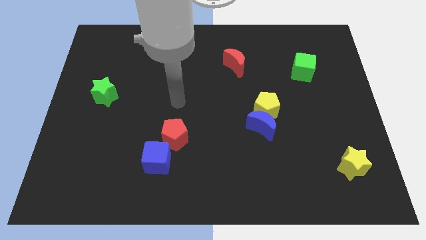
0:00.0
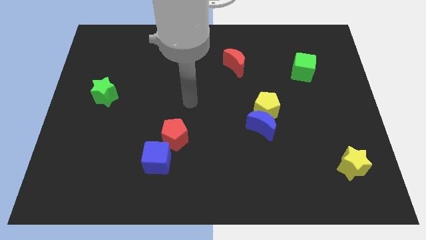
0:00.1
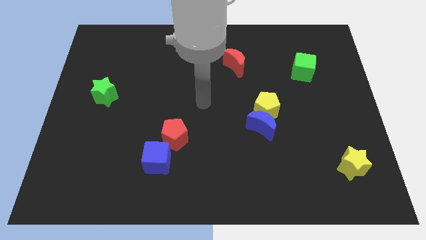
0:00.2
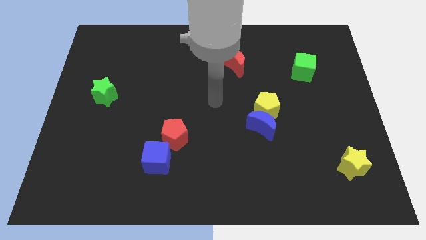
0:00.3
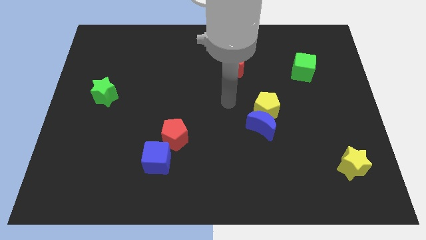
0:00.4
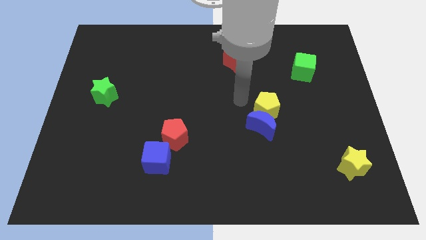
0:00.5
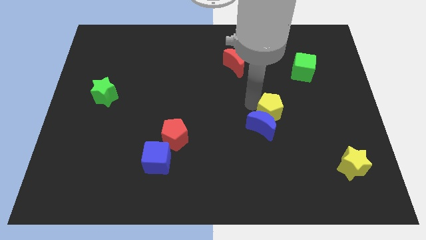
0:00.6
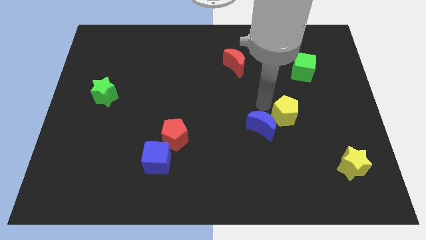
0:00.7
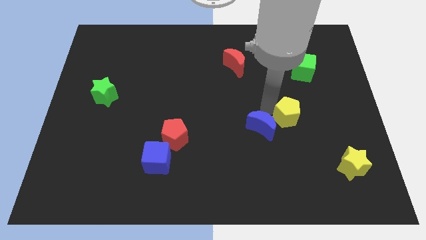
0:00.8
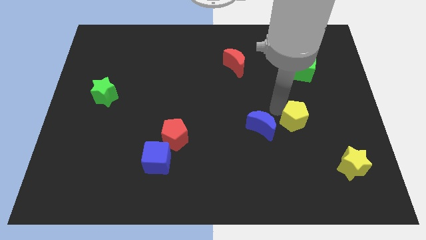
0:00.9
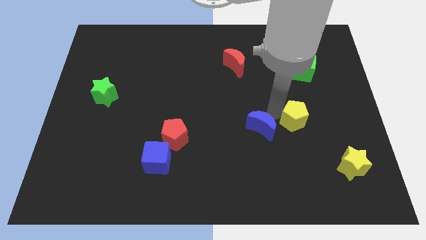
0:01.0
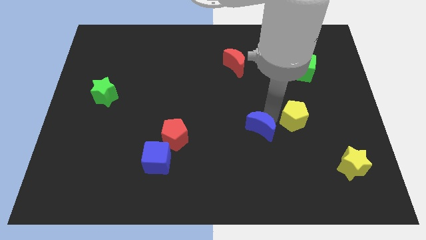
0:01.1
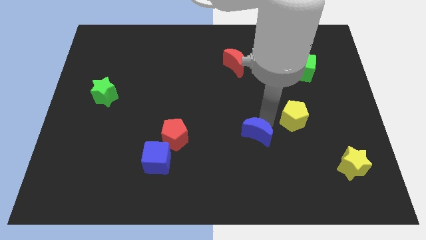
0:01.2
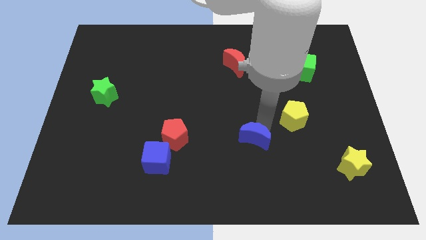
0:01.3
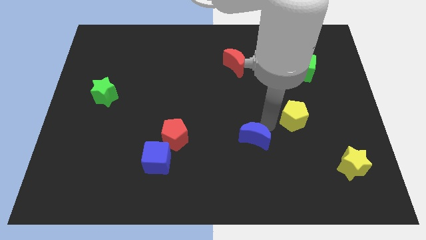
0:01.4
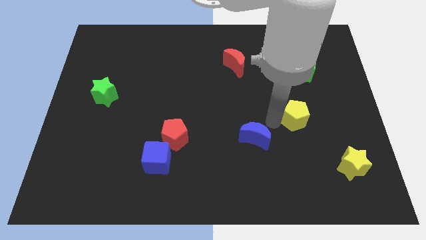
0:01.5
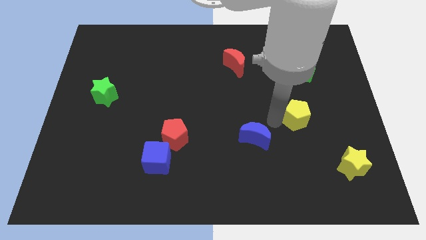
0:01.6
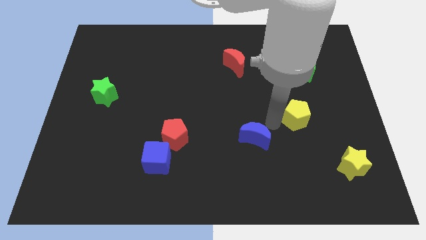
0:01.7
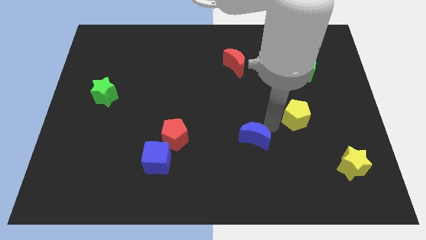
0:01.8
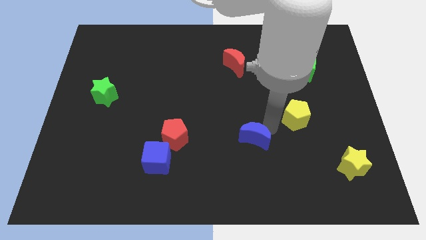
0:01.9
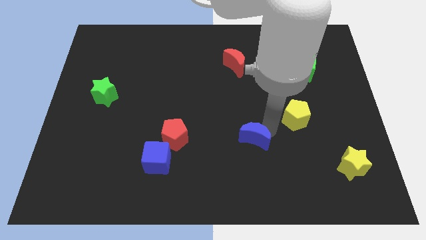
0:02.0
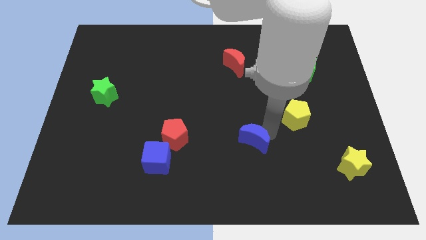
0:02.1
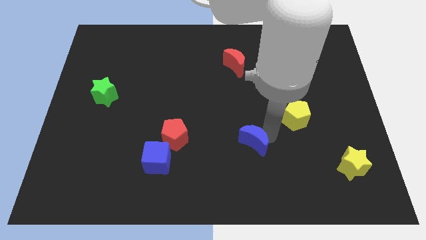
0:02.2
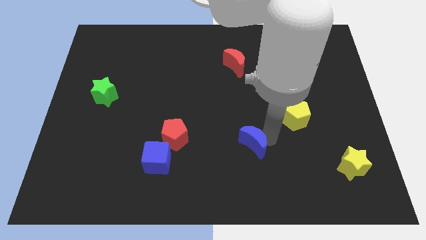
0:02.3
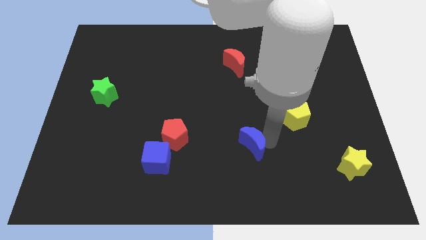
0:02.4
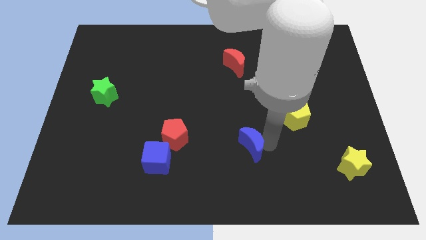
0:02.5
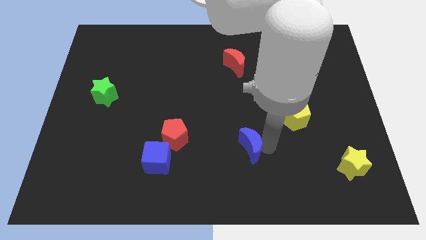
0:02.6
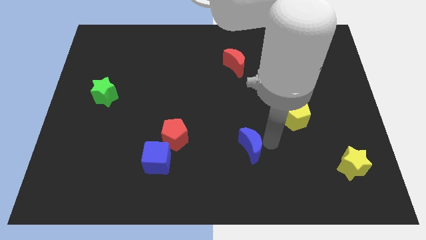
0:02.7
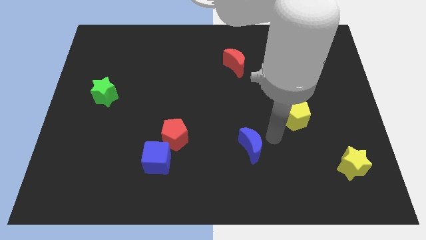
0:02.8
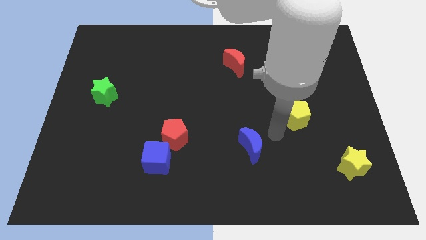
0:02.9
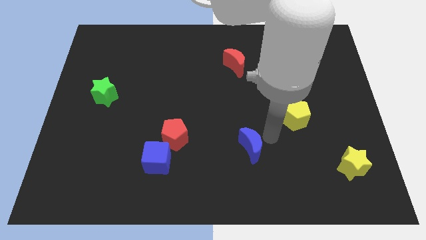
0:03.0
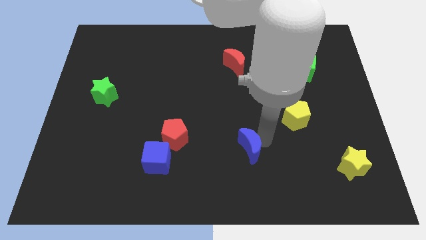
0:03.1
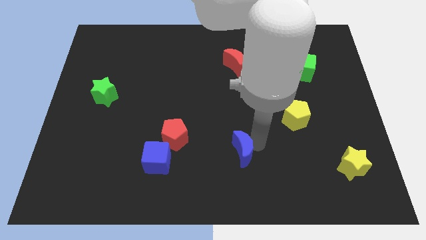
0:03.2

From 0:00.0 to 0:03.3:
push the blue moon somewhat diagonally downwards and left

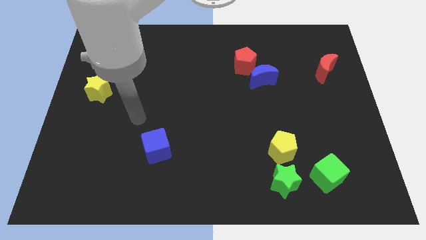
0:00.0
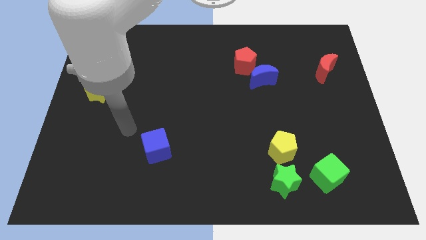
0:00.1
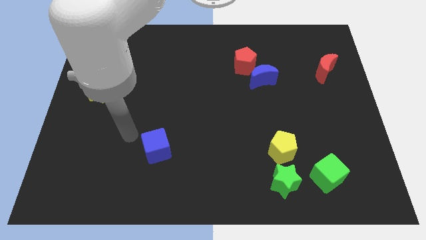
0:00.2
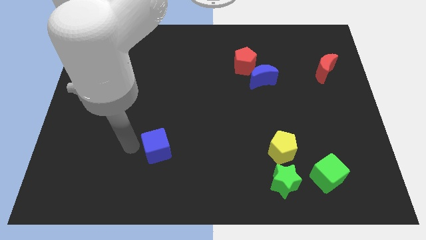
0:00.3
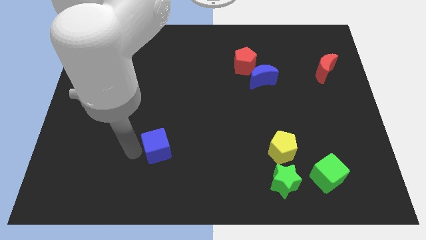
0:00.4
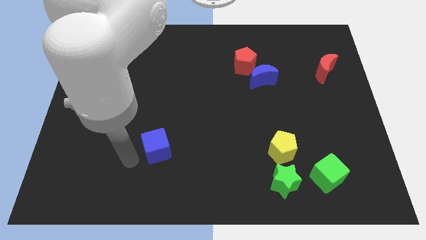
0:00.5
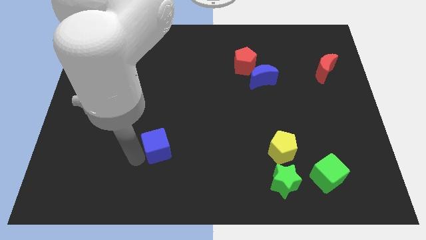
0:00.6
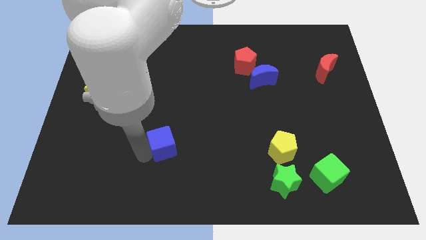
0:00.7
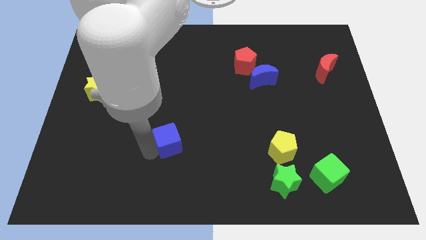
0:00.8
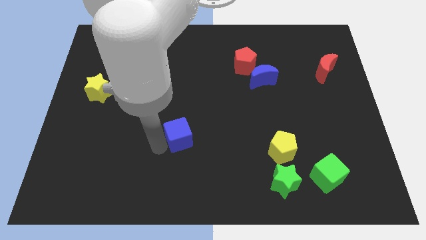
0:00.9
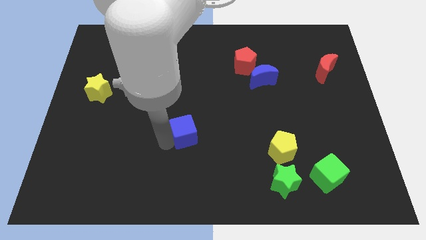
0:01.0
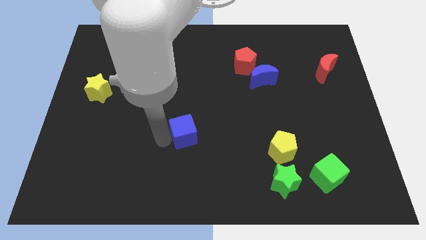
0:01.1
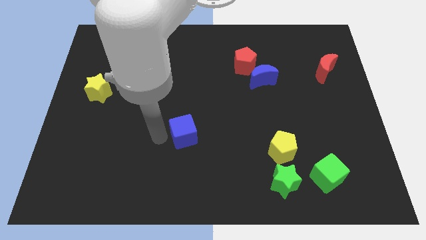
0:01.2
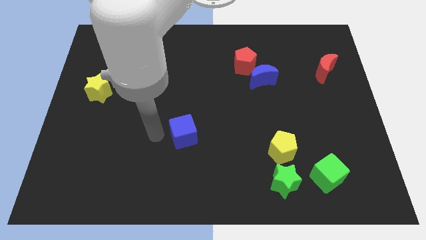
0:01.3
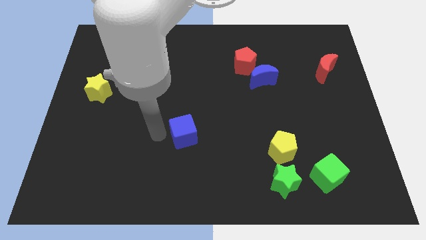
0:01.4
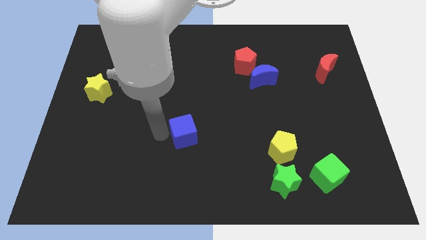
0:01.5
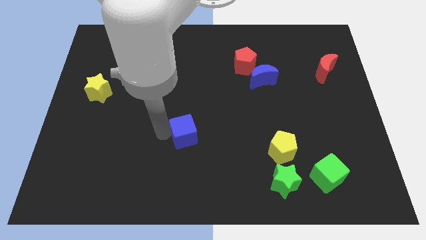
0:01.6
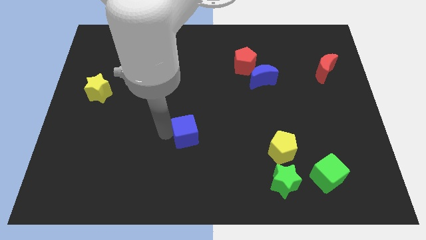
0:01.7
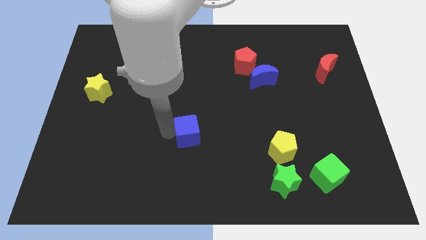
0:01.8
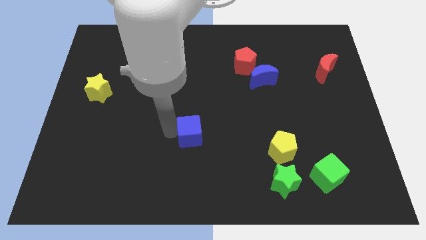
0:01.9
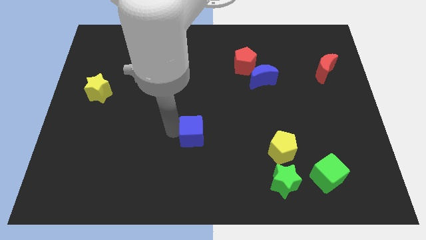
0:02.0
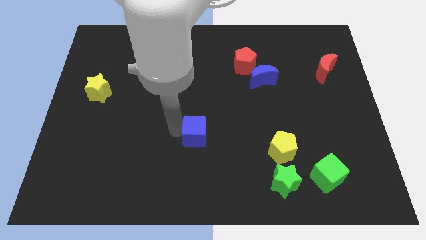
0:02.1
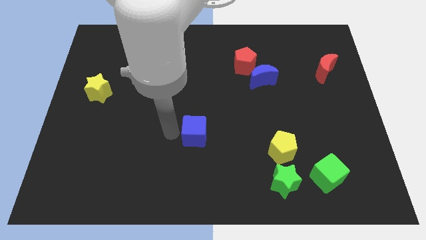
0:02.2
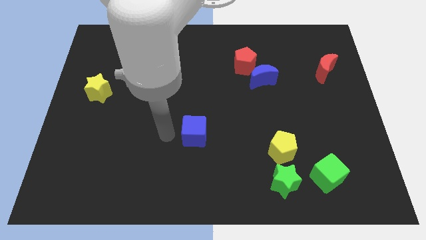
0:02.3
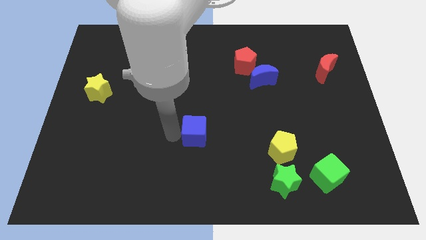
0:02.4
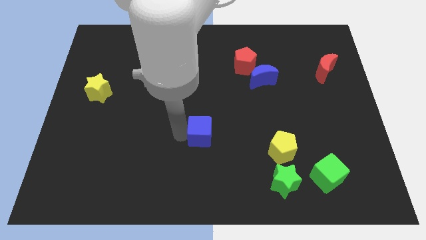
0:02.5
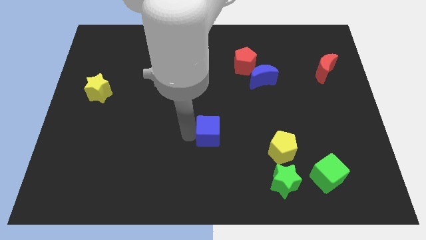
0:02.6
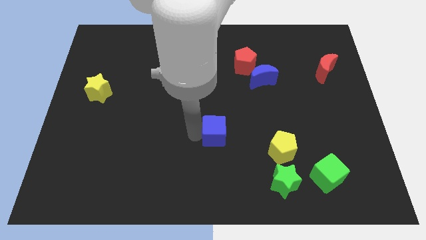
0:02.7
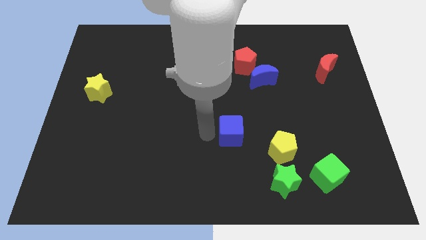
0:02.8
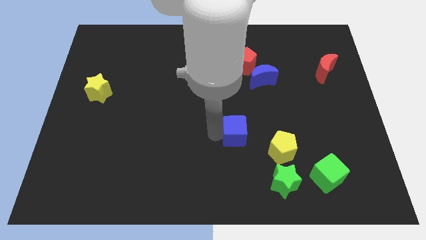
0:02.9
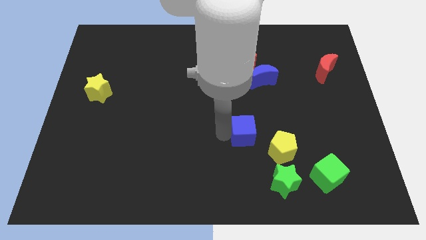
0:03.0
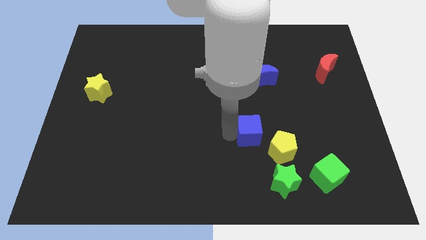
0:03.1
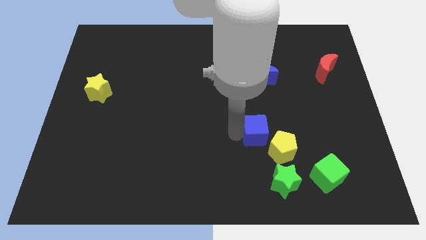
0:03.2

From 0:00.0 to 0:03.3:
move the blue cube right

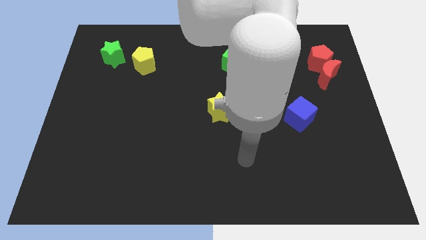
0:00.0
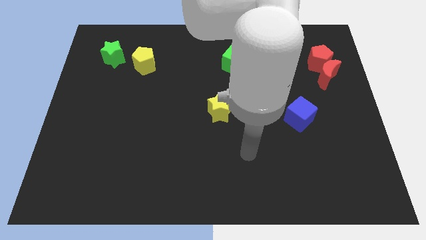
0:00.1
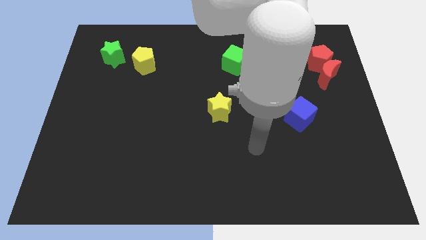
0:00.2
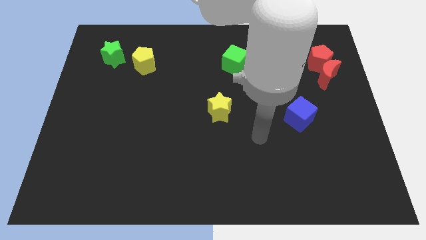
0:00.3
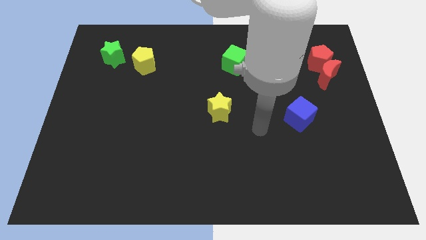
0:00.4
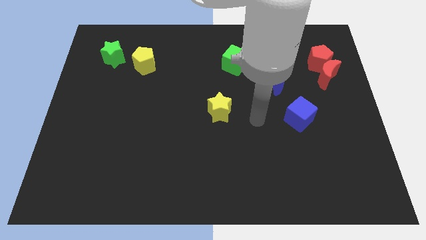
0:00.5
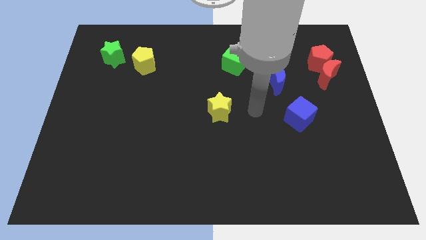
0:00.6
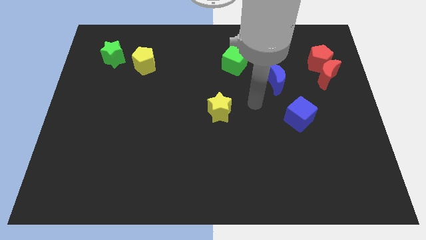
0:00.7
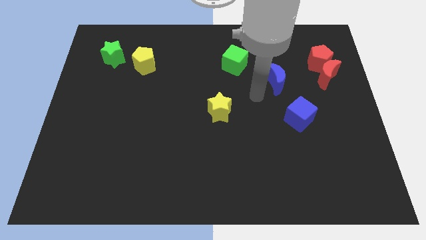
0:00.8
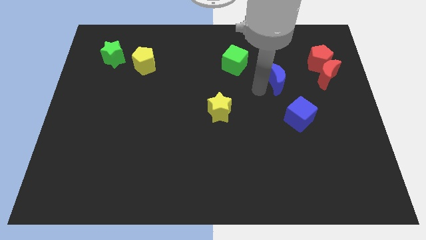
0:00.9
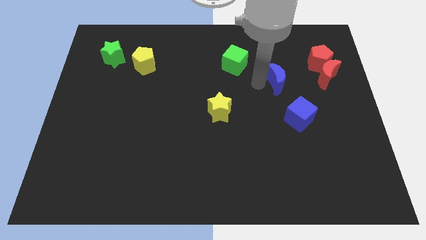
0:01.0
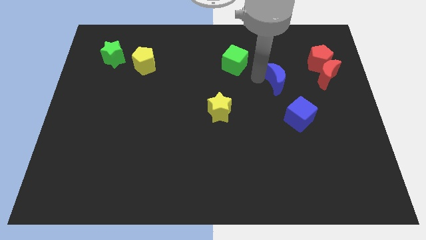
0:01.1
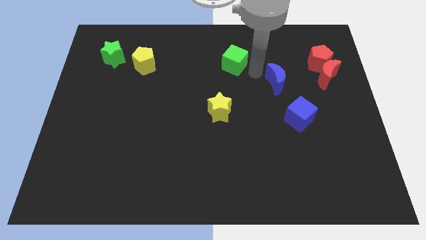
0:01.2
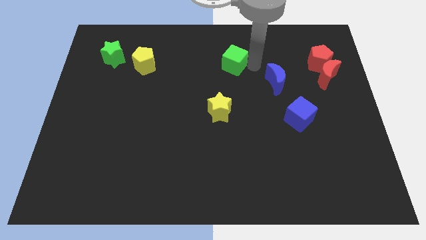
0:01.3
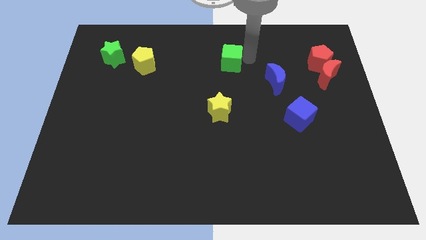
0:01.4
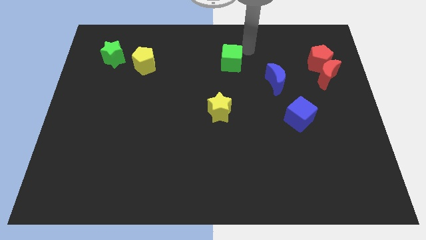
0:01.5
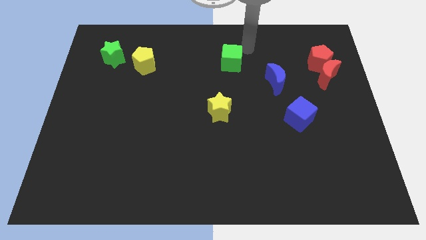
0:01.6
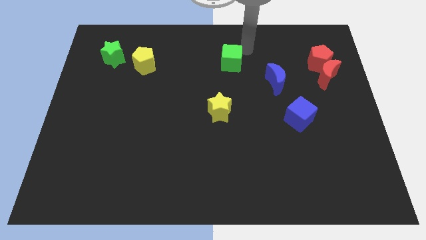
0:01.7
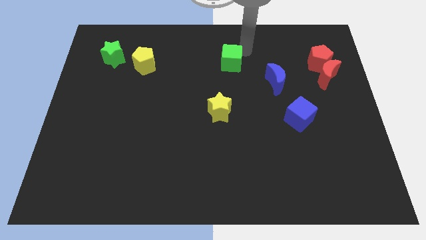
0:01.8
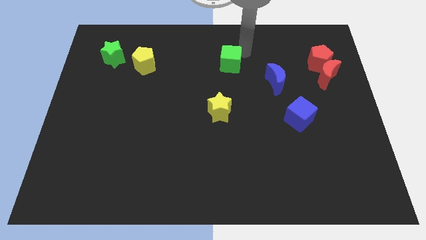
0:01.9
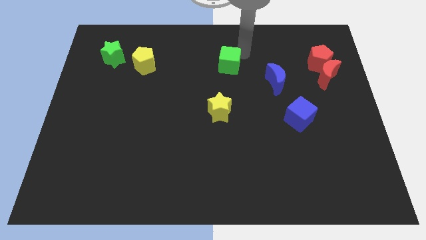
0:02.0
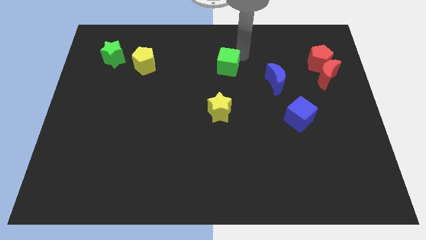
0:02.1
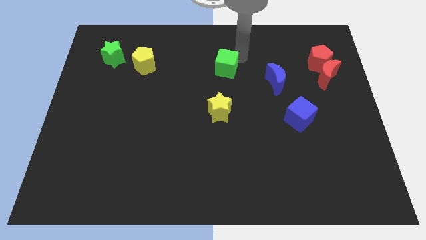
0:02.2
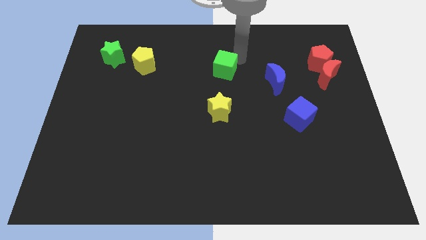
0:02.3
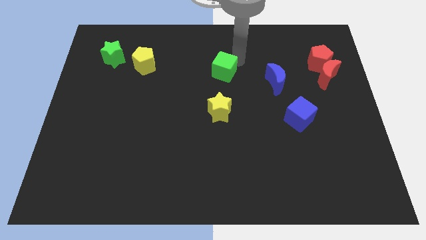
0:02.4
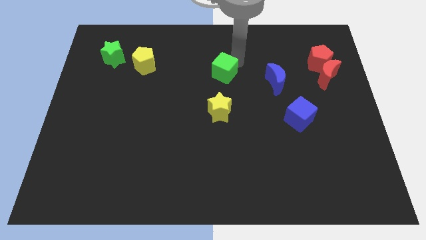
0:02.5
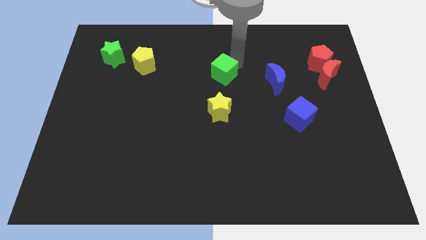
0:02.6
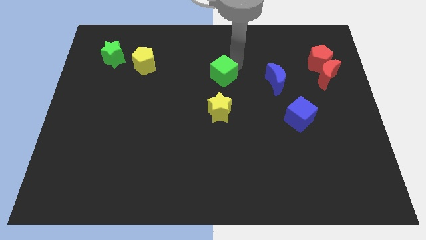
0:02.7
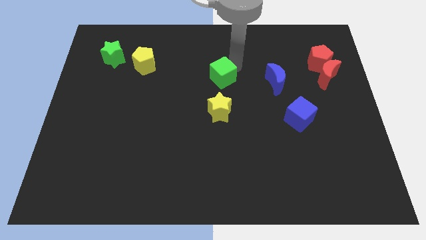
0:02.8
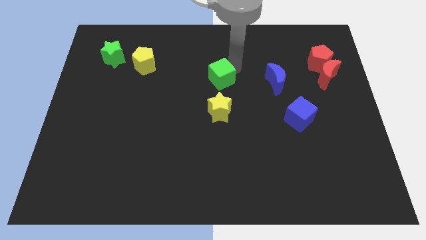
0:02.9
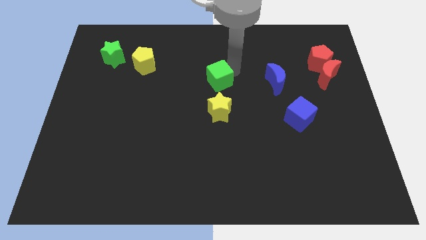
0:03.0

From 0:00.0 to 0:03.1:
push the green cube a little down and then to the left
